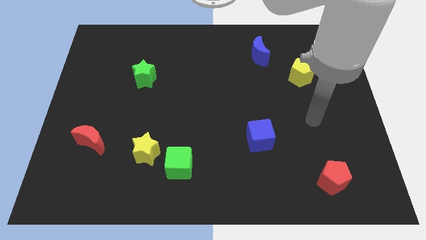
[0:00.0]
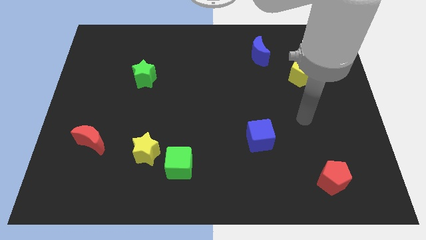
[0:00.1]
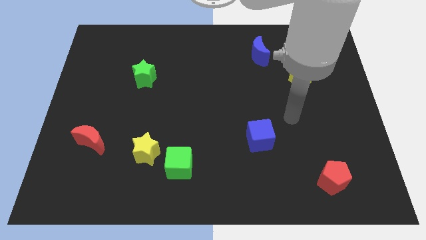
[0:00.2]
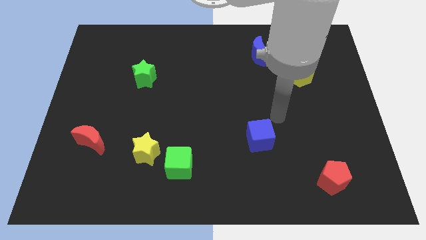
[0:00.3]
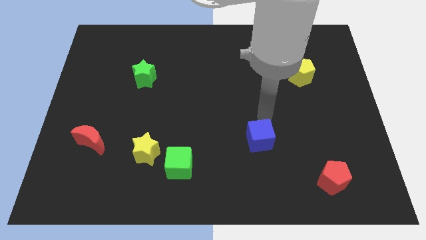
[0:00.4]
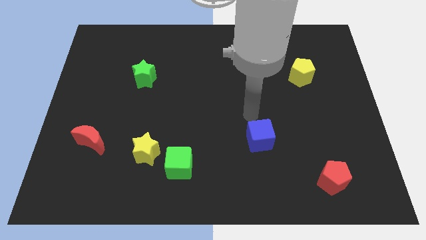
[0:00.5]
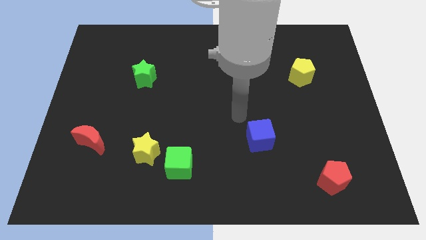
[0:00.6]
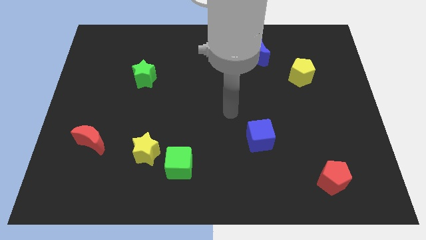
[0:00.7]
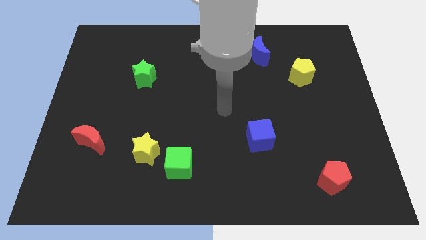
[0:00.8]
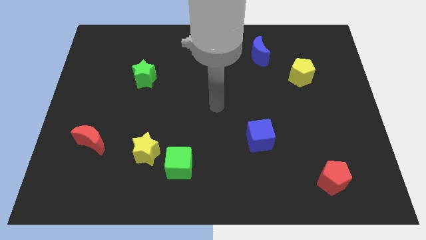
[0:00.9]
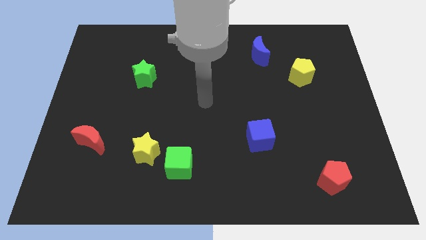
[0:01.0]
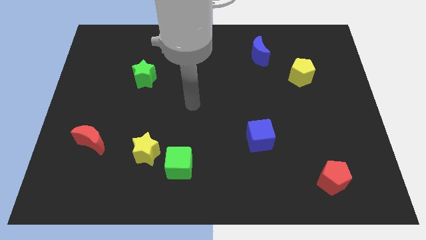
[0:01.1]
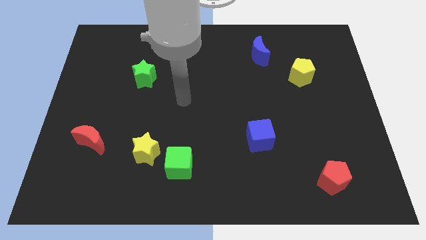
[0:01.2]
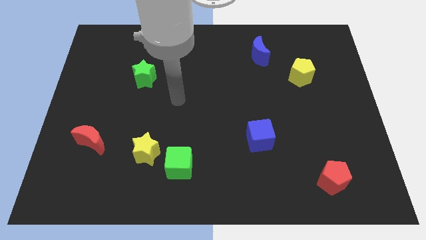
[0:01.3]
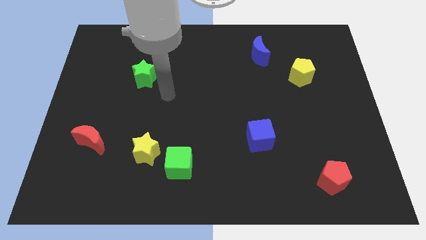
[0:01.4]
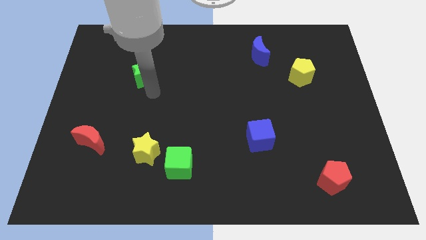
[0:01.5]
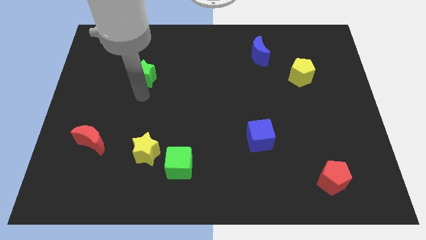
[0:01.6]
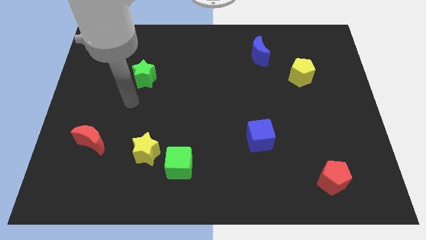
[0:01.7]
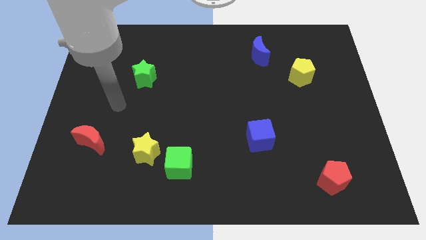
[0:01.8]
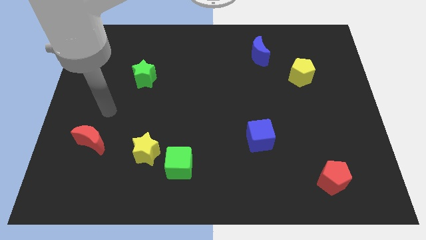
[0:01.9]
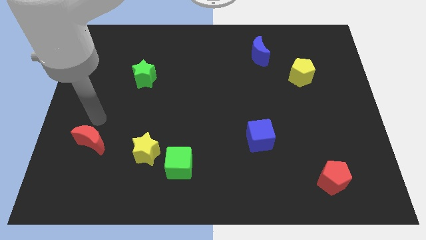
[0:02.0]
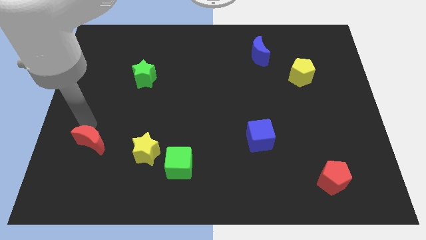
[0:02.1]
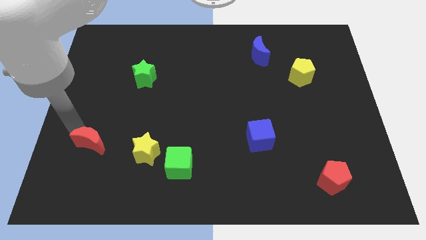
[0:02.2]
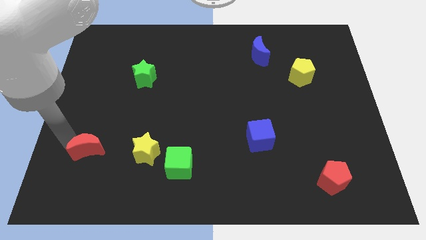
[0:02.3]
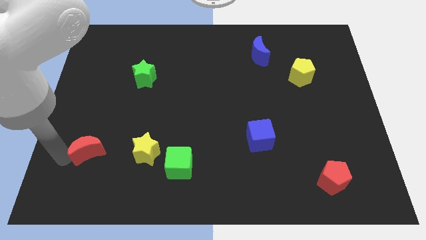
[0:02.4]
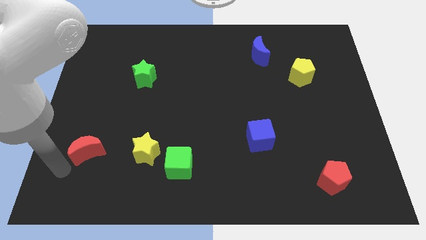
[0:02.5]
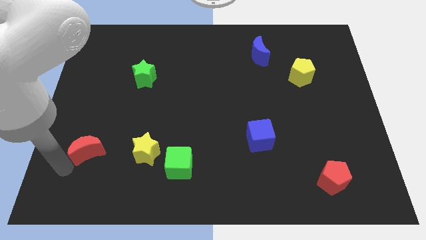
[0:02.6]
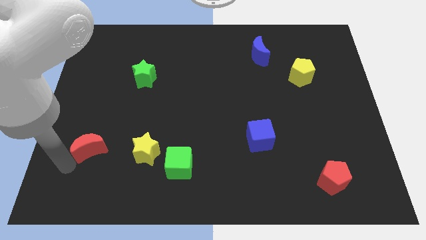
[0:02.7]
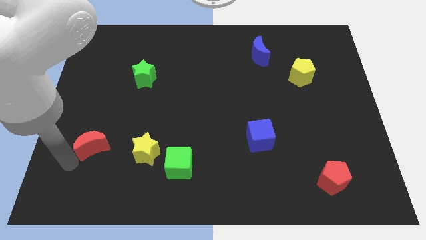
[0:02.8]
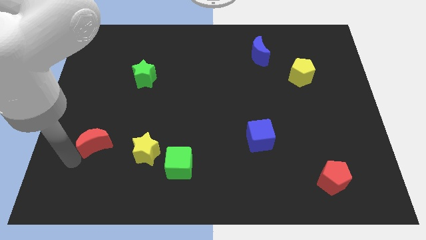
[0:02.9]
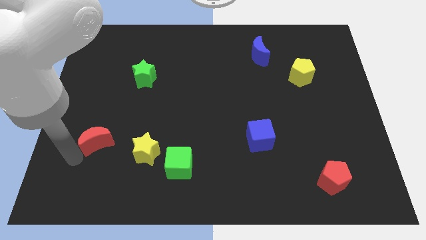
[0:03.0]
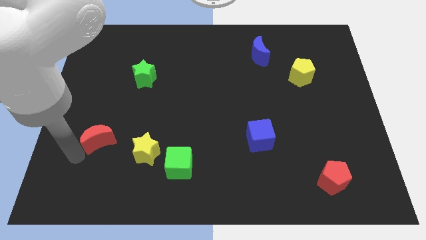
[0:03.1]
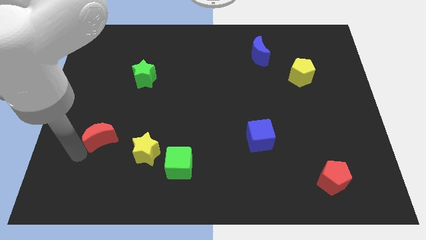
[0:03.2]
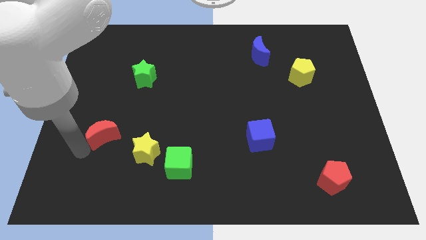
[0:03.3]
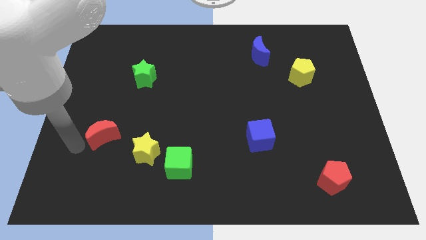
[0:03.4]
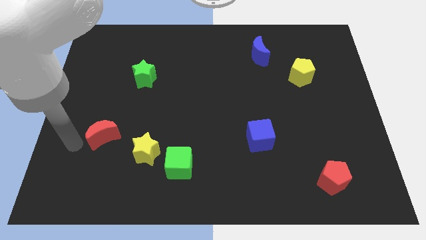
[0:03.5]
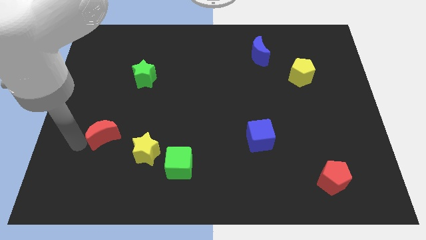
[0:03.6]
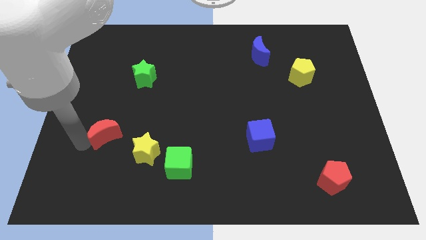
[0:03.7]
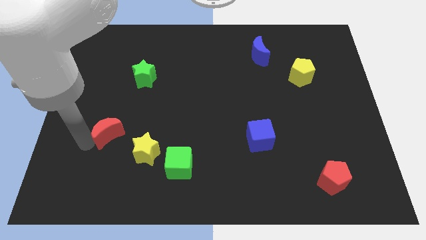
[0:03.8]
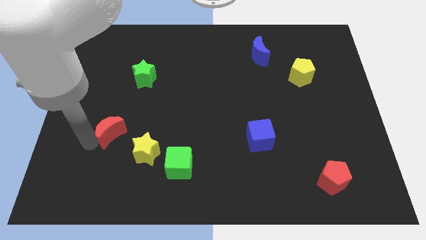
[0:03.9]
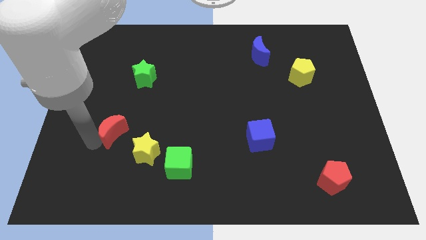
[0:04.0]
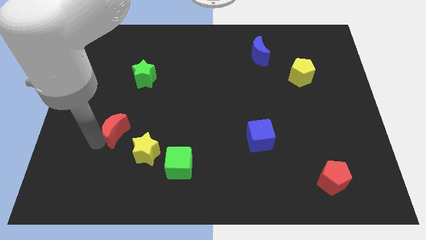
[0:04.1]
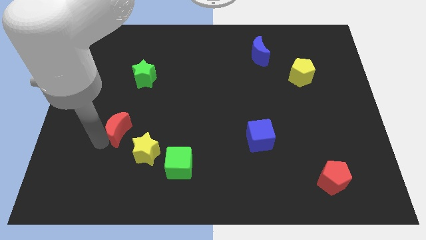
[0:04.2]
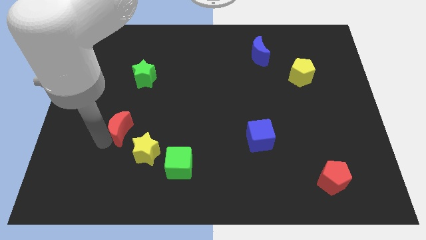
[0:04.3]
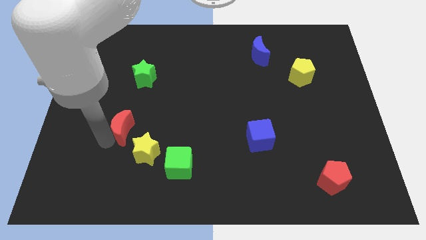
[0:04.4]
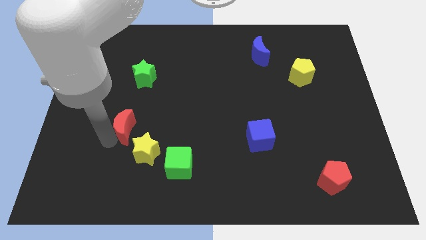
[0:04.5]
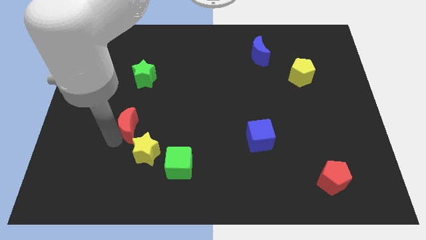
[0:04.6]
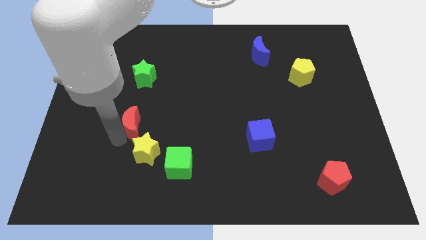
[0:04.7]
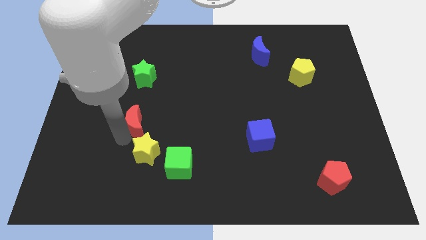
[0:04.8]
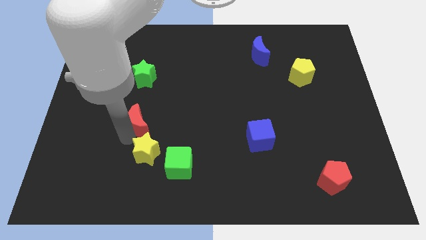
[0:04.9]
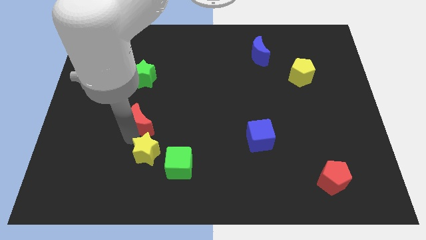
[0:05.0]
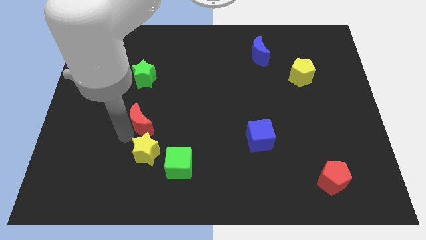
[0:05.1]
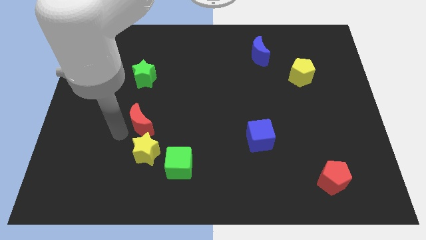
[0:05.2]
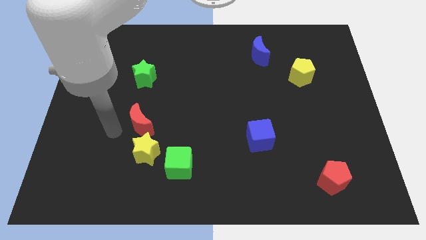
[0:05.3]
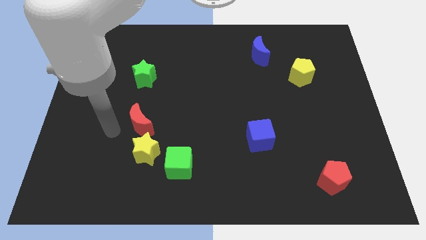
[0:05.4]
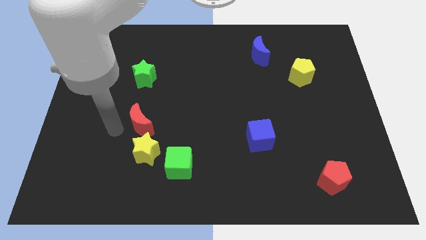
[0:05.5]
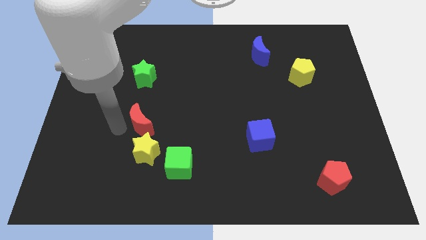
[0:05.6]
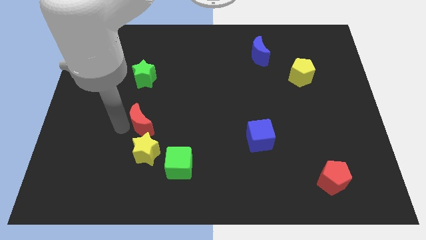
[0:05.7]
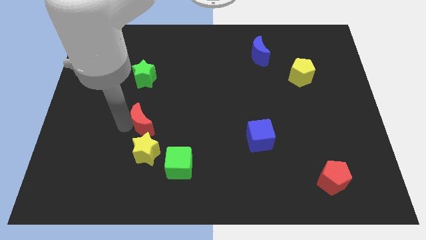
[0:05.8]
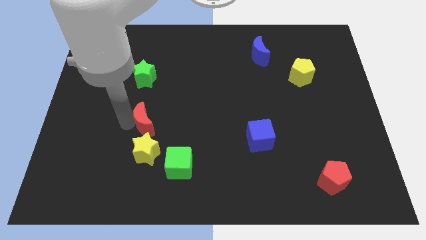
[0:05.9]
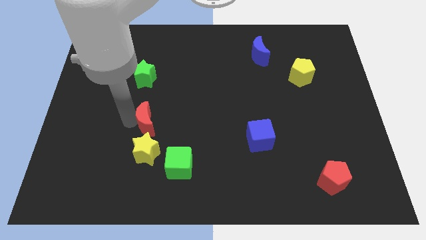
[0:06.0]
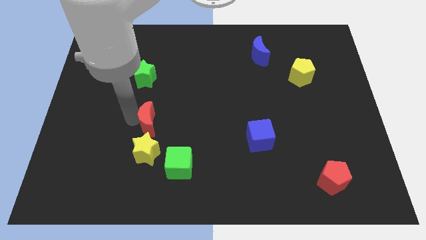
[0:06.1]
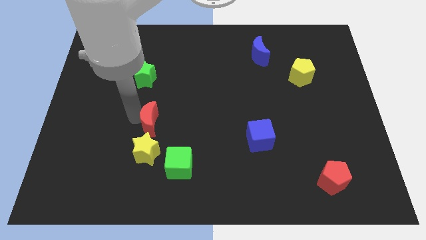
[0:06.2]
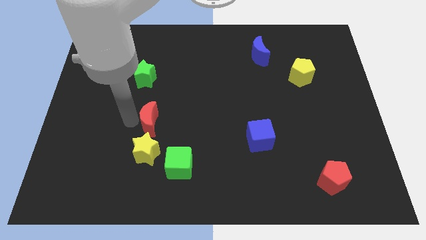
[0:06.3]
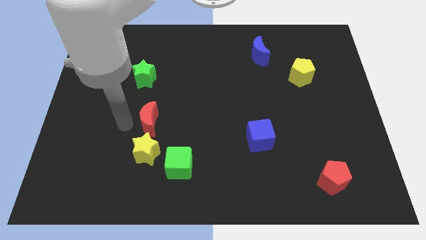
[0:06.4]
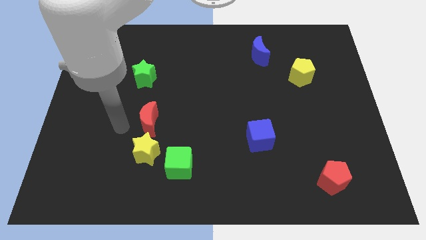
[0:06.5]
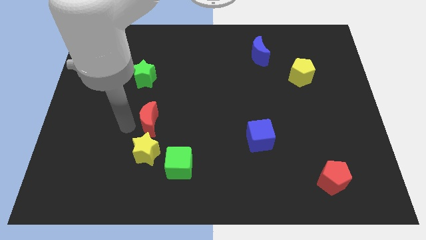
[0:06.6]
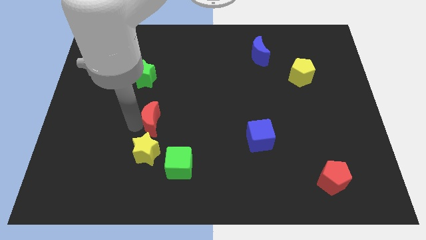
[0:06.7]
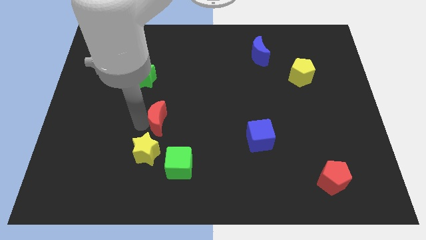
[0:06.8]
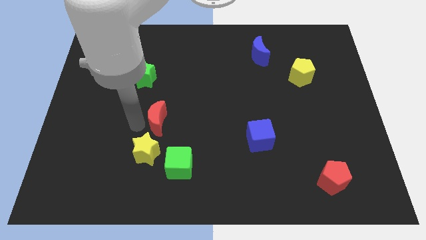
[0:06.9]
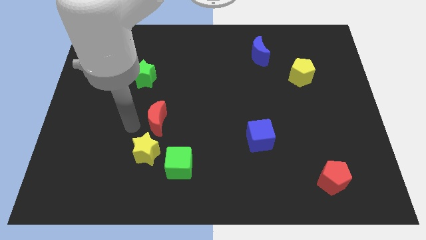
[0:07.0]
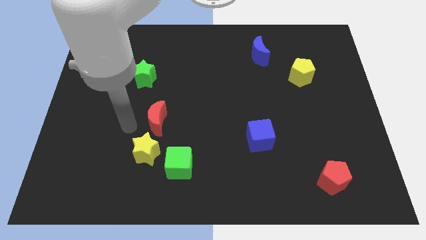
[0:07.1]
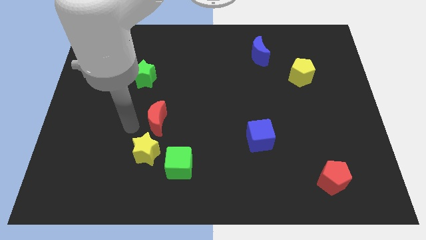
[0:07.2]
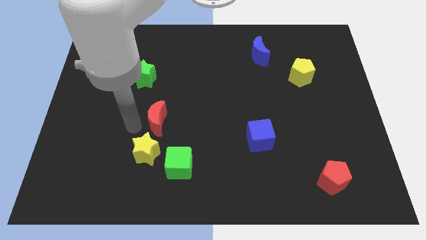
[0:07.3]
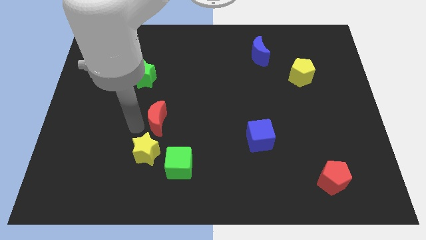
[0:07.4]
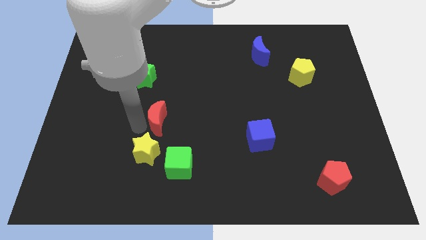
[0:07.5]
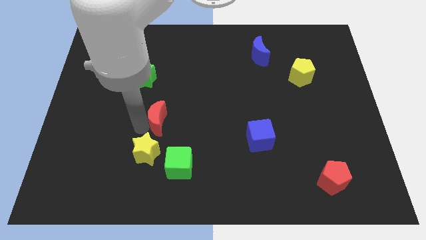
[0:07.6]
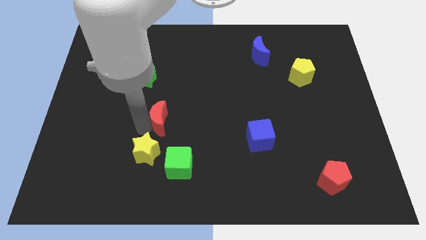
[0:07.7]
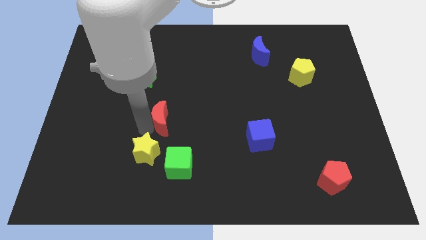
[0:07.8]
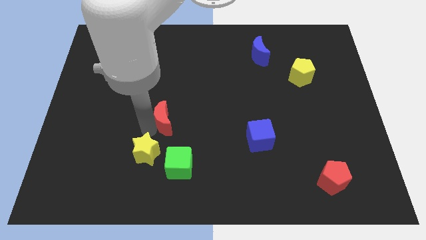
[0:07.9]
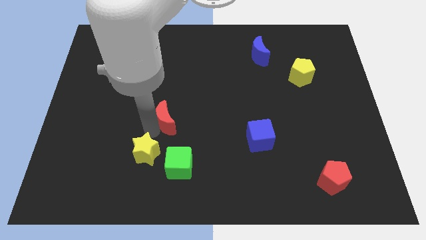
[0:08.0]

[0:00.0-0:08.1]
slide the red moon to the middle of the board
